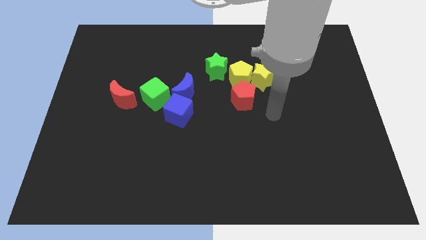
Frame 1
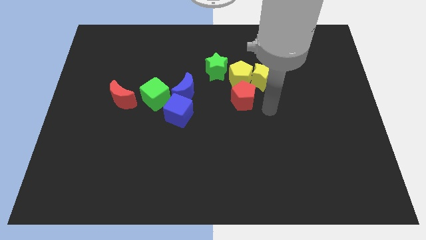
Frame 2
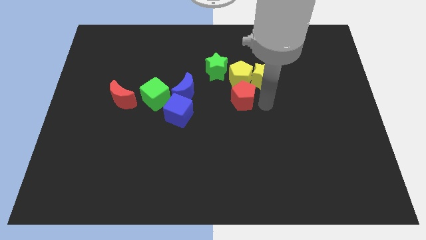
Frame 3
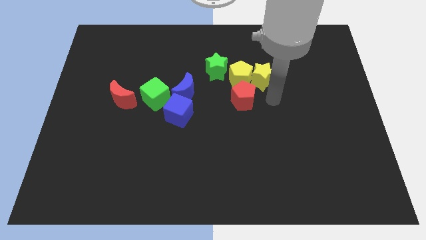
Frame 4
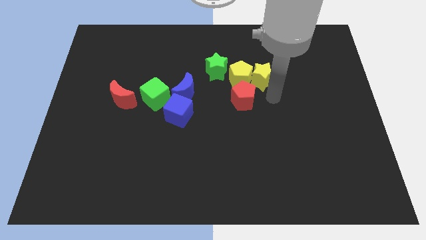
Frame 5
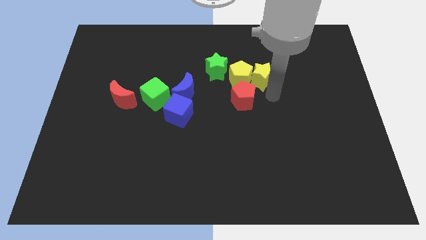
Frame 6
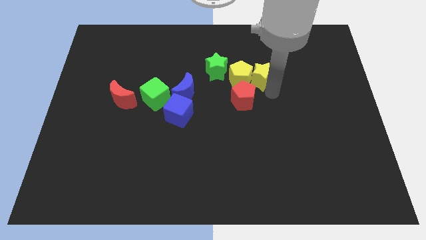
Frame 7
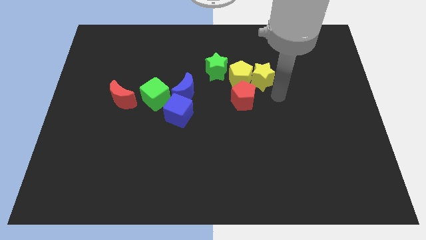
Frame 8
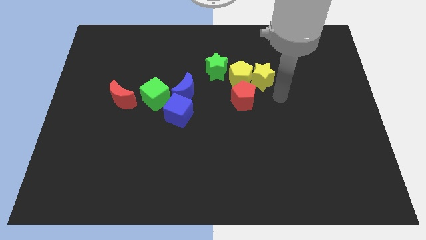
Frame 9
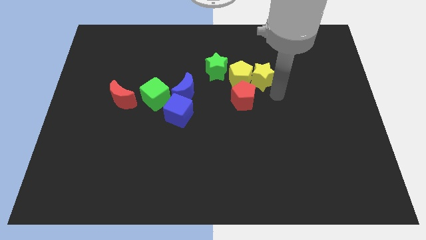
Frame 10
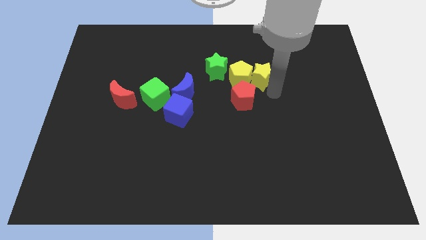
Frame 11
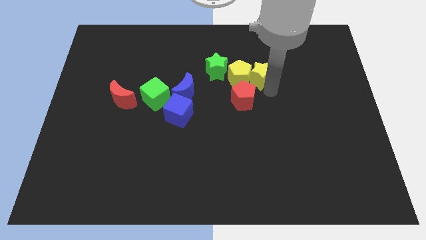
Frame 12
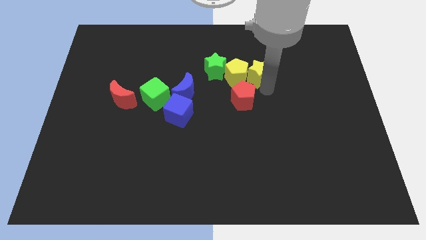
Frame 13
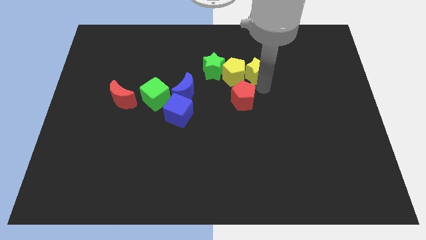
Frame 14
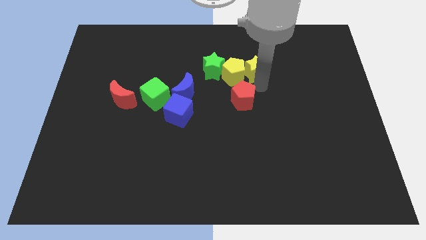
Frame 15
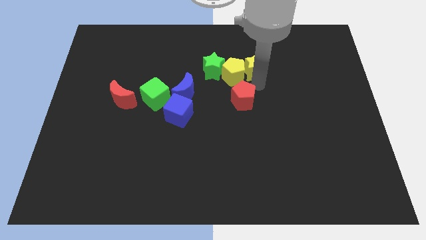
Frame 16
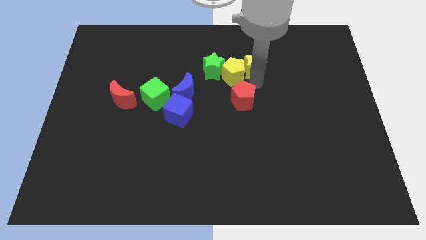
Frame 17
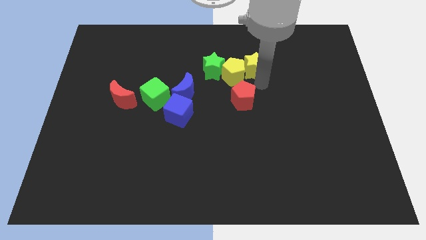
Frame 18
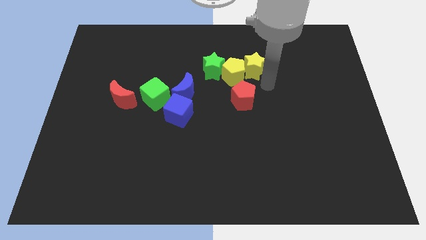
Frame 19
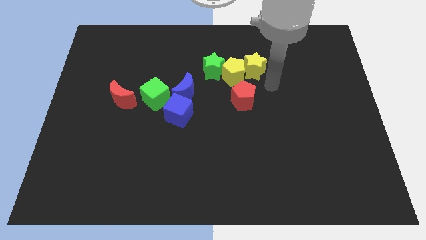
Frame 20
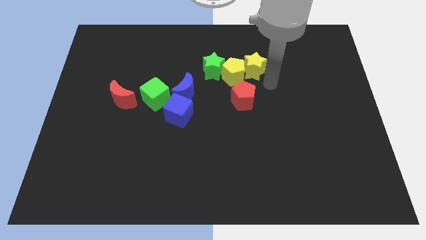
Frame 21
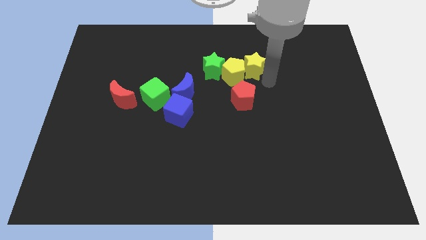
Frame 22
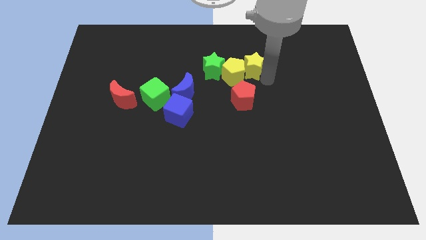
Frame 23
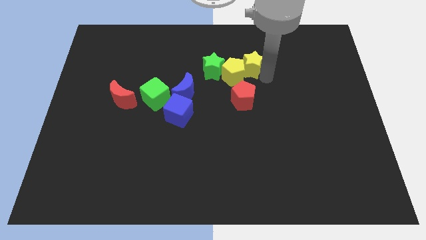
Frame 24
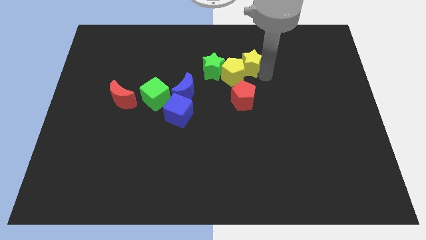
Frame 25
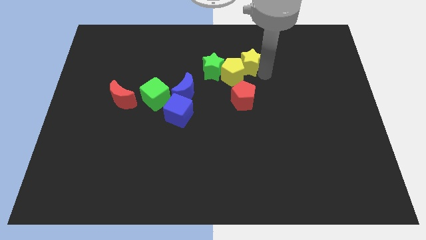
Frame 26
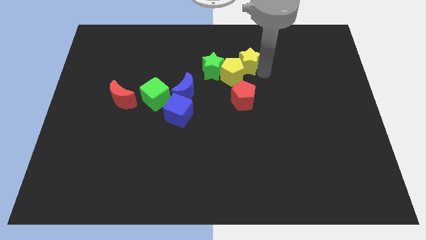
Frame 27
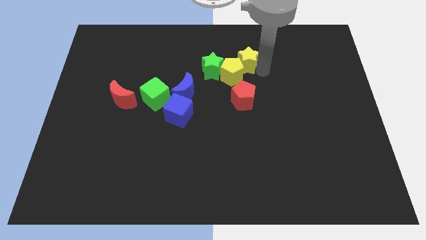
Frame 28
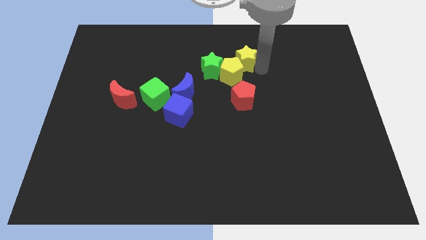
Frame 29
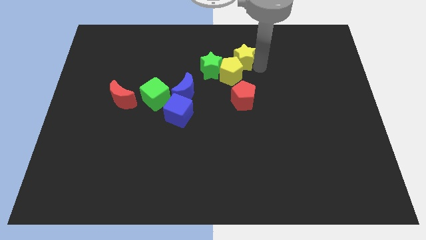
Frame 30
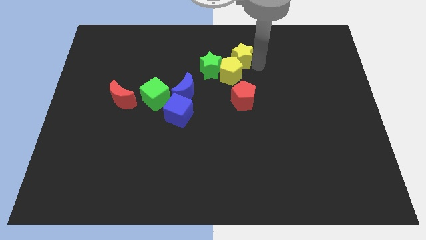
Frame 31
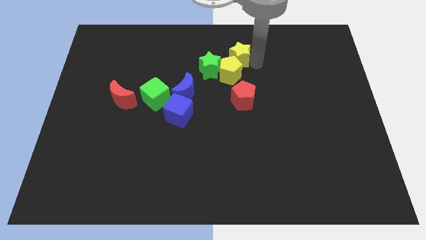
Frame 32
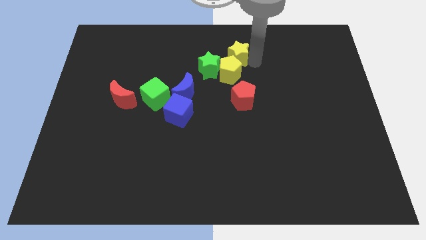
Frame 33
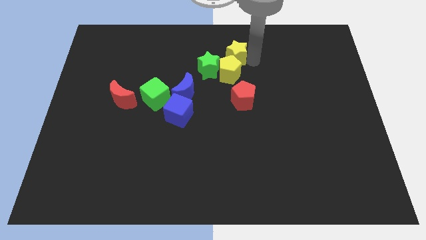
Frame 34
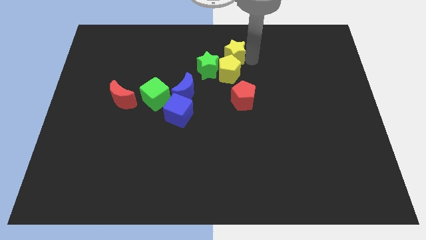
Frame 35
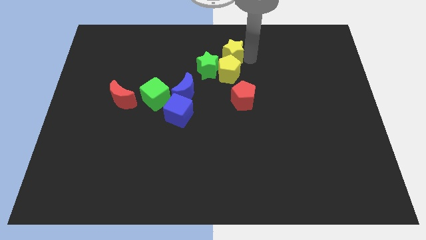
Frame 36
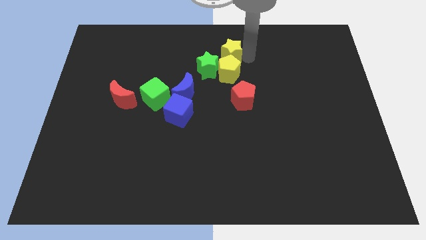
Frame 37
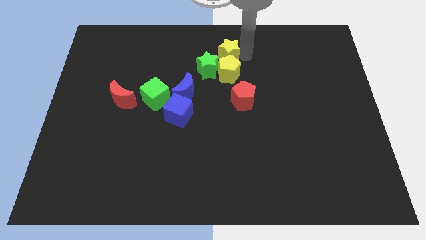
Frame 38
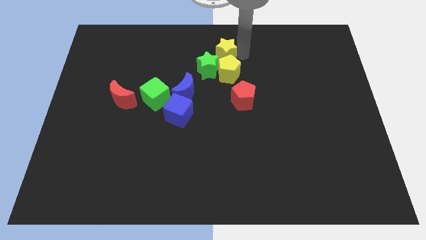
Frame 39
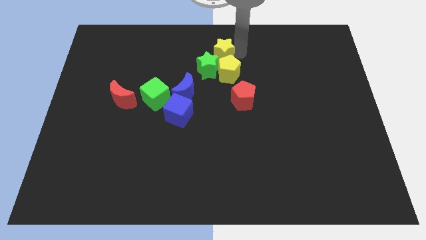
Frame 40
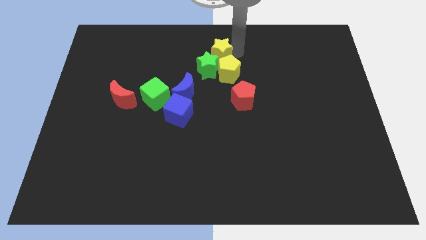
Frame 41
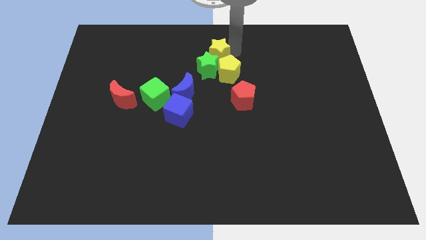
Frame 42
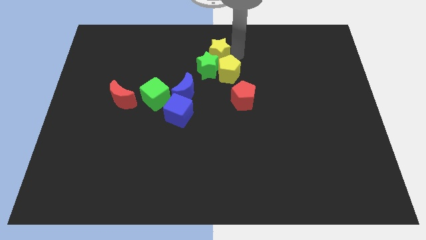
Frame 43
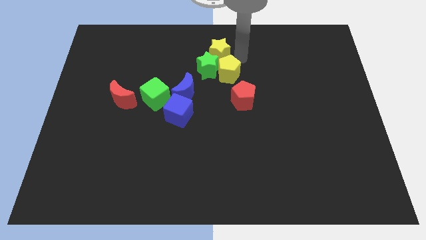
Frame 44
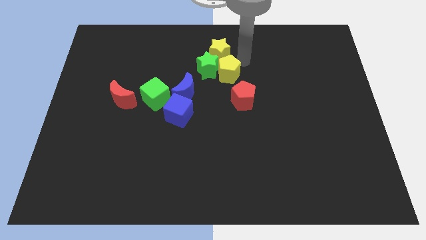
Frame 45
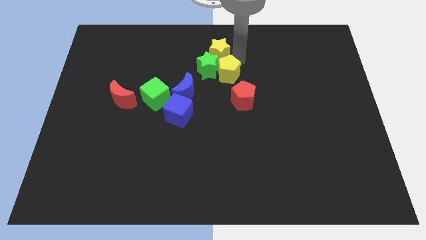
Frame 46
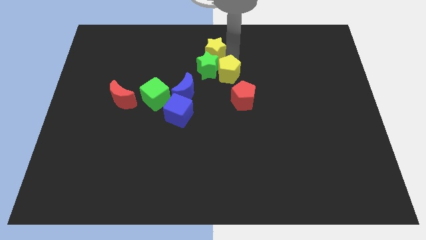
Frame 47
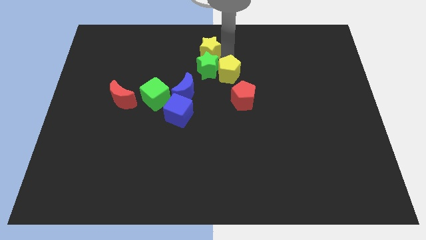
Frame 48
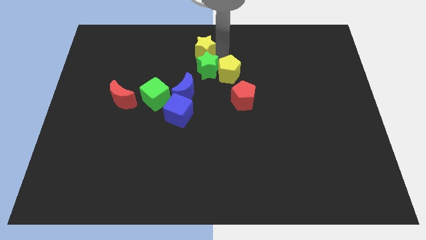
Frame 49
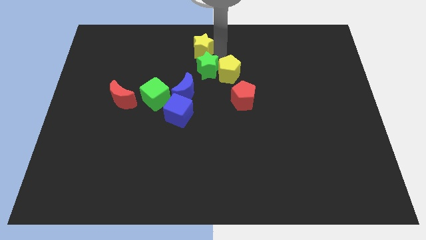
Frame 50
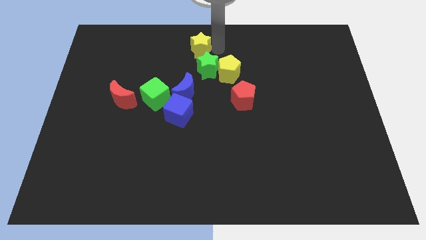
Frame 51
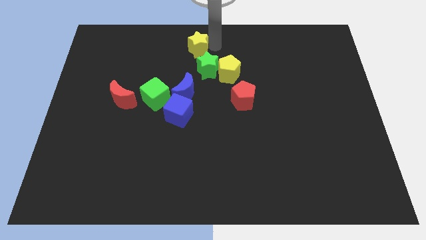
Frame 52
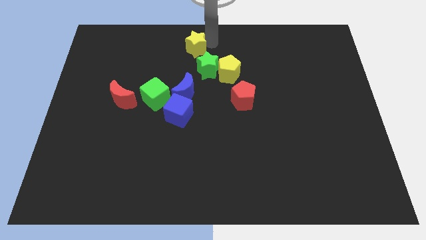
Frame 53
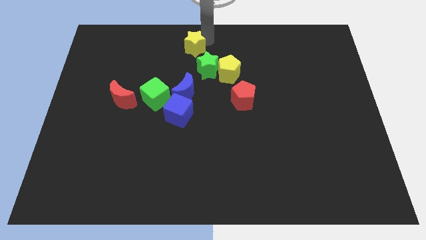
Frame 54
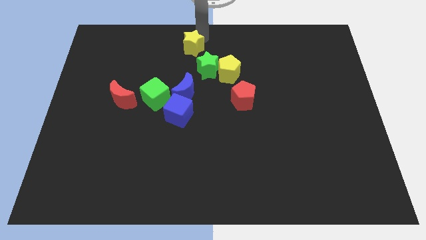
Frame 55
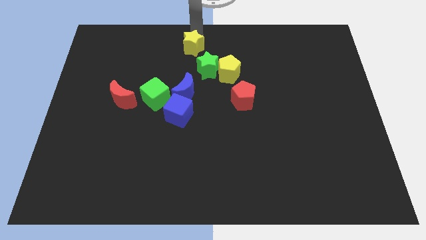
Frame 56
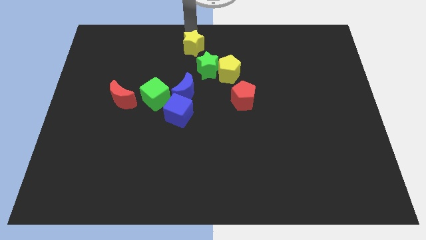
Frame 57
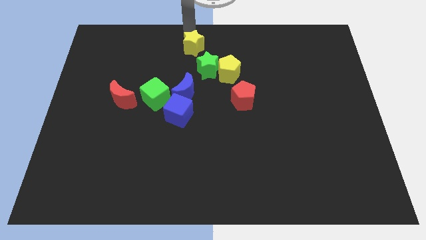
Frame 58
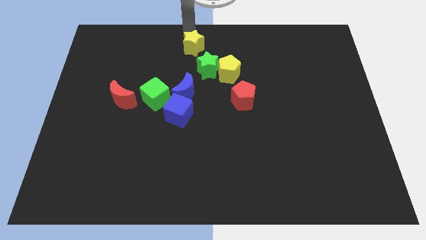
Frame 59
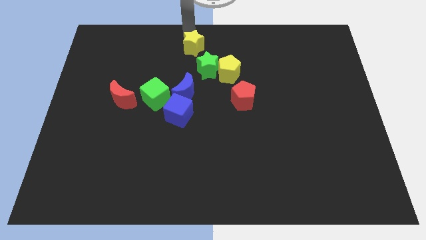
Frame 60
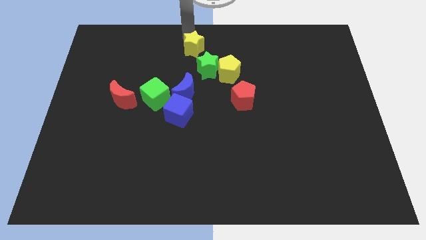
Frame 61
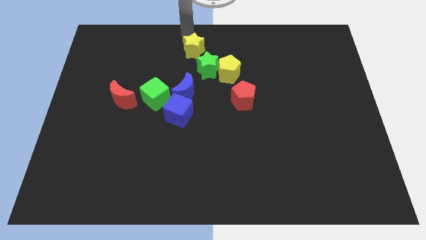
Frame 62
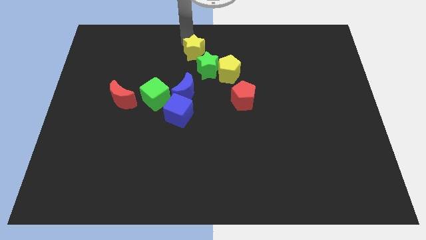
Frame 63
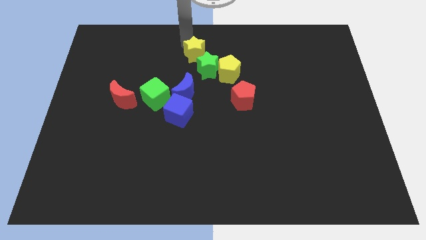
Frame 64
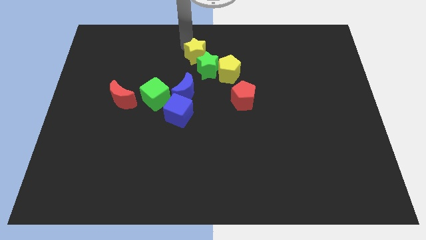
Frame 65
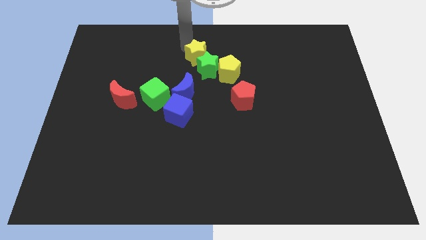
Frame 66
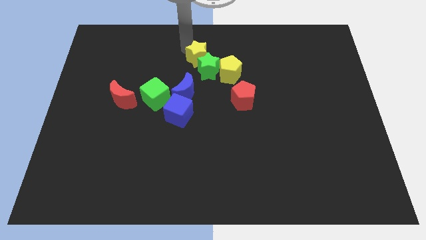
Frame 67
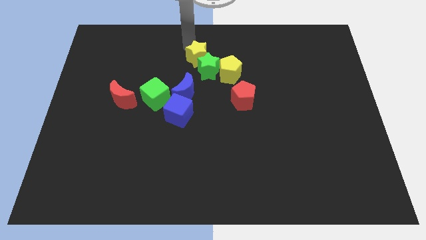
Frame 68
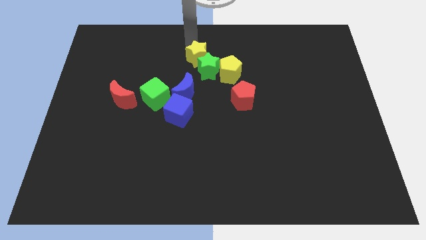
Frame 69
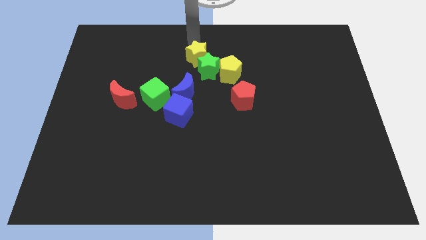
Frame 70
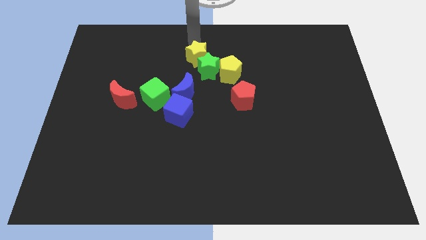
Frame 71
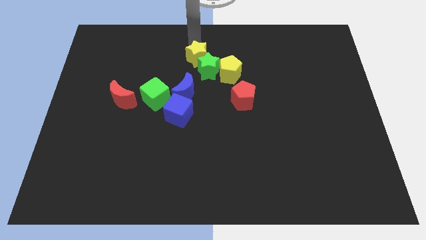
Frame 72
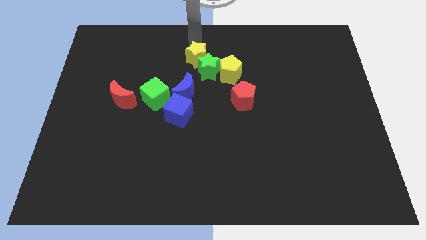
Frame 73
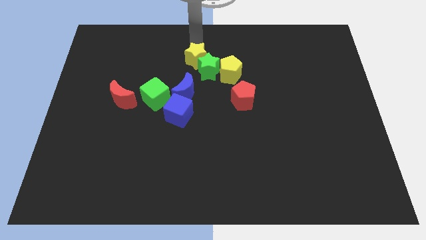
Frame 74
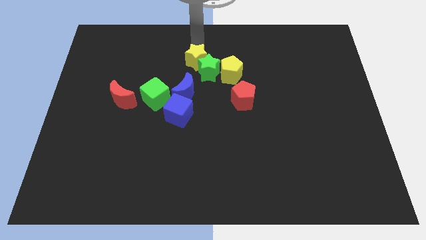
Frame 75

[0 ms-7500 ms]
put the yellow star to the left side of the yellow pentagon
